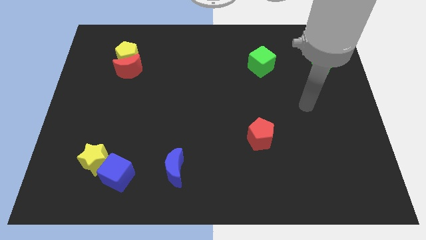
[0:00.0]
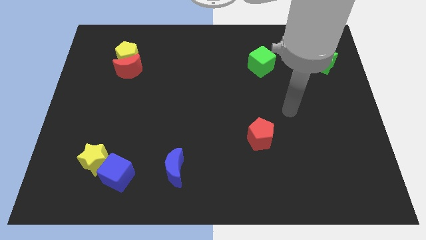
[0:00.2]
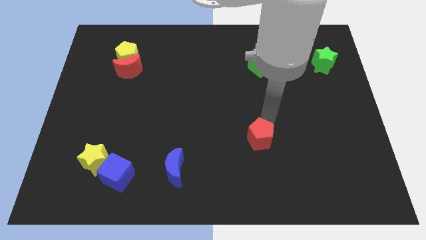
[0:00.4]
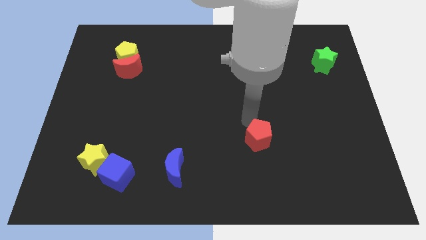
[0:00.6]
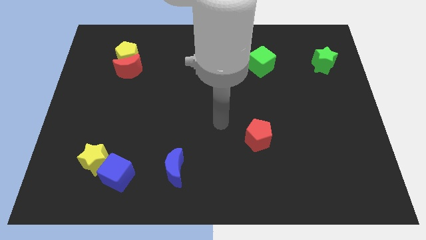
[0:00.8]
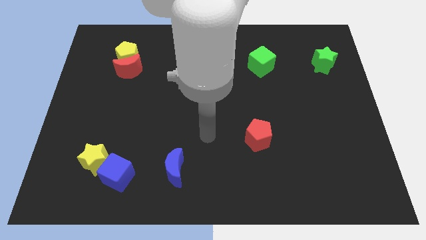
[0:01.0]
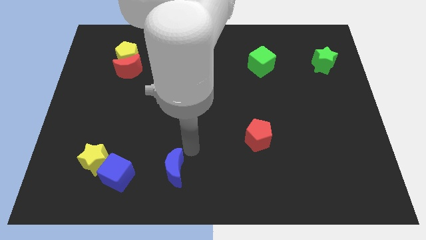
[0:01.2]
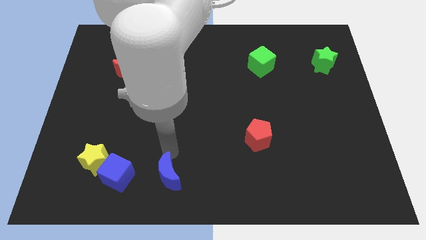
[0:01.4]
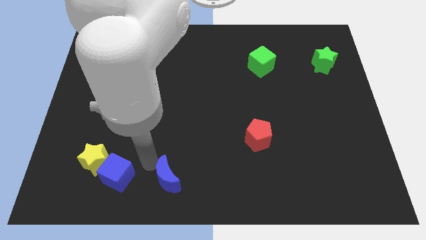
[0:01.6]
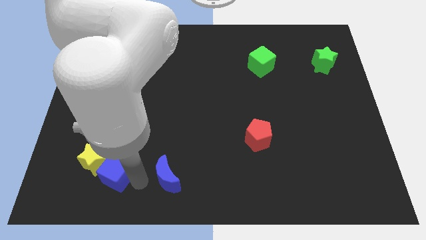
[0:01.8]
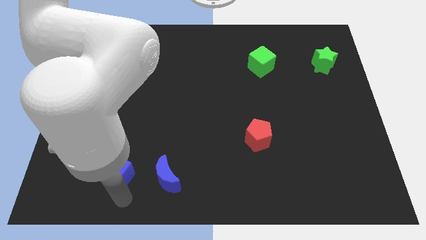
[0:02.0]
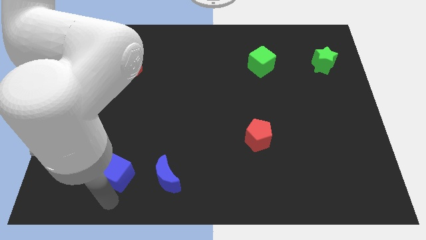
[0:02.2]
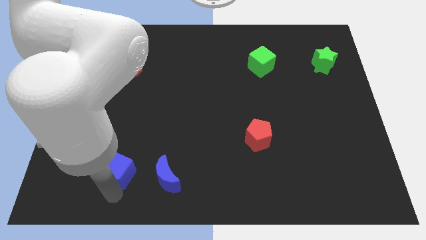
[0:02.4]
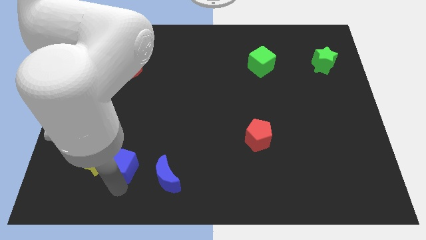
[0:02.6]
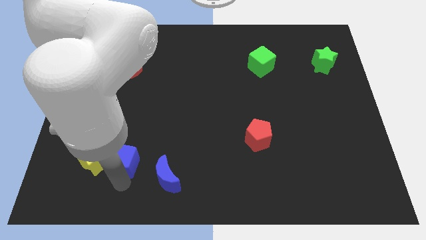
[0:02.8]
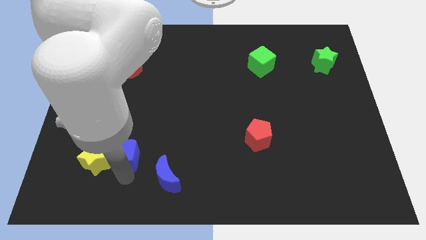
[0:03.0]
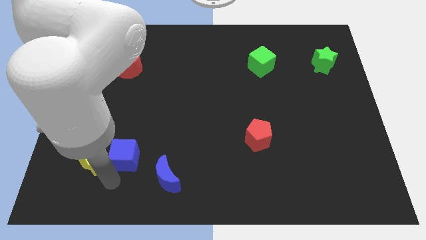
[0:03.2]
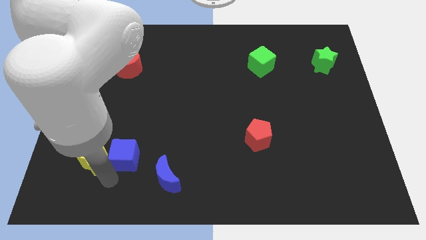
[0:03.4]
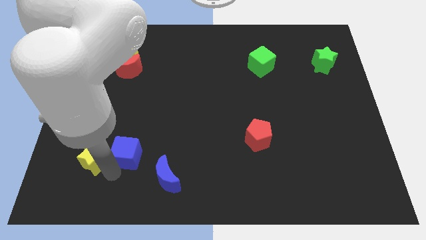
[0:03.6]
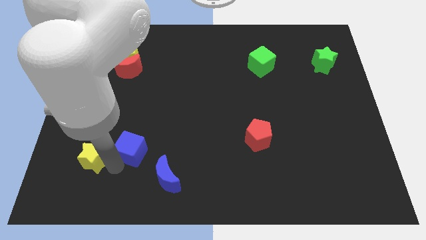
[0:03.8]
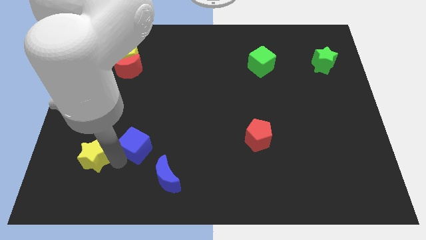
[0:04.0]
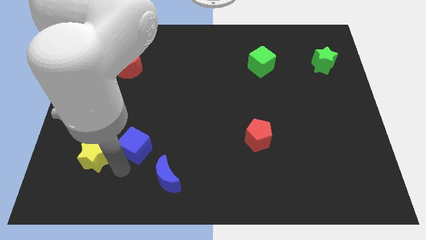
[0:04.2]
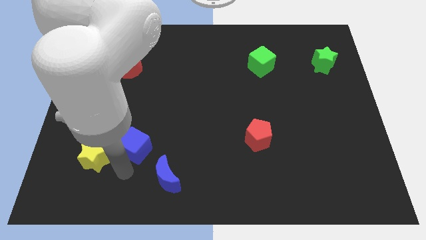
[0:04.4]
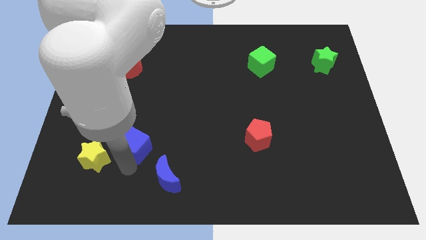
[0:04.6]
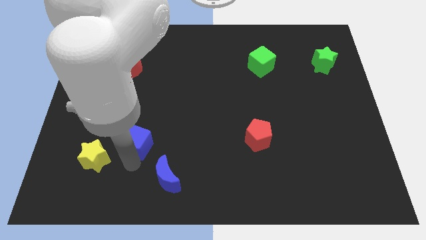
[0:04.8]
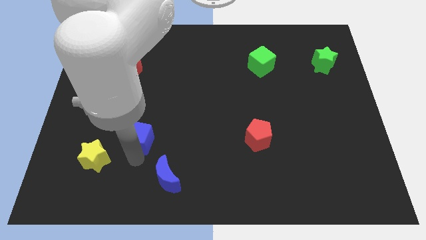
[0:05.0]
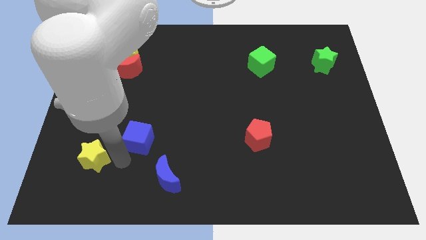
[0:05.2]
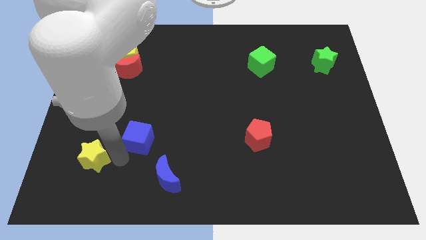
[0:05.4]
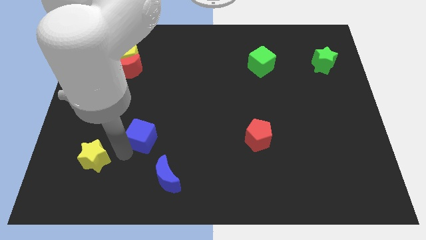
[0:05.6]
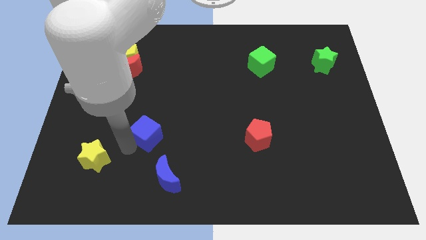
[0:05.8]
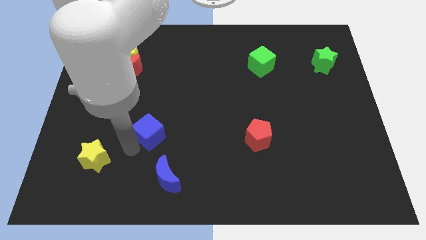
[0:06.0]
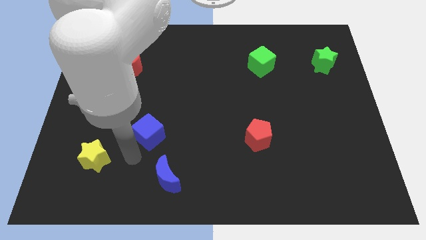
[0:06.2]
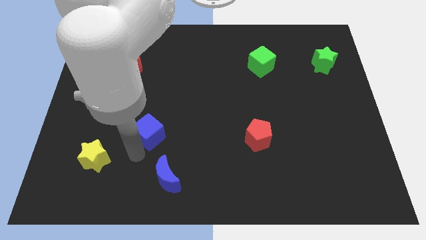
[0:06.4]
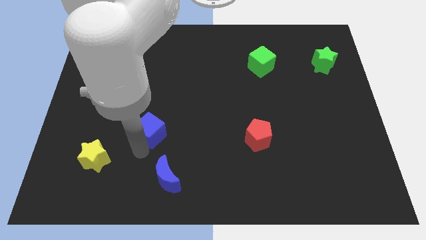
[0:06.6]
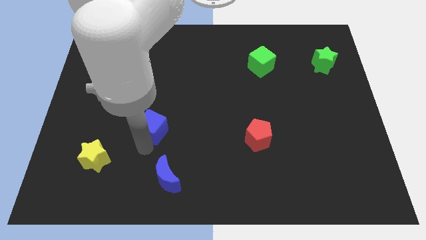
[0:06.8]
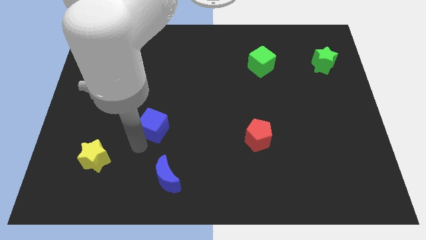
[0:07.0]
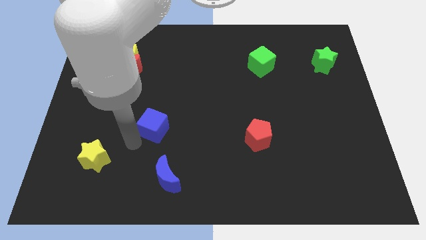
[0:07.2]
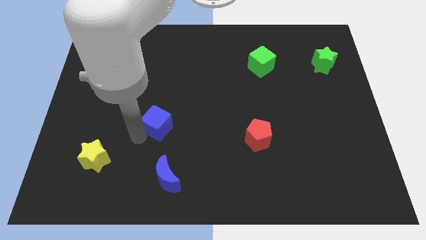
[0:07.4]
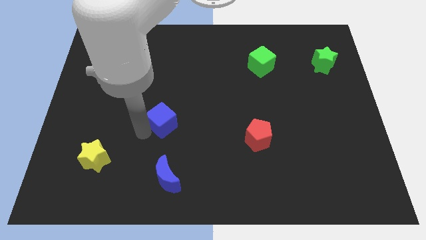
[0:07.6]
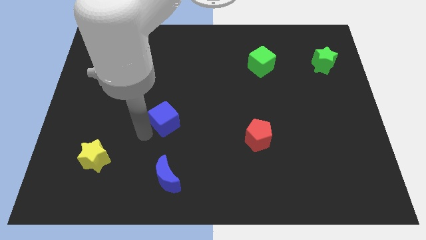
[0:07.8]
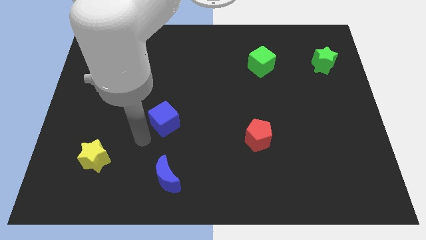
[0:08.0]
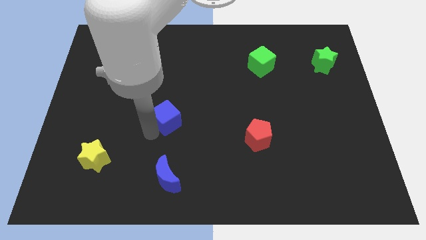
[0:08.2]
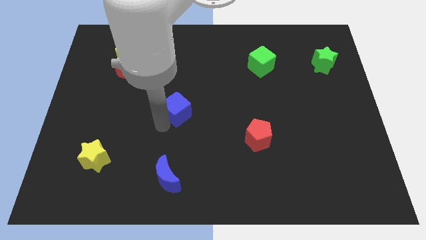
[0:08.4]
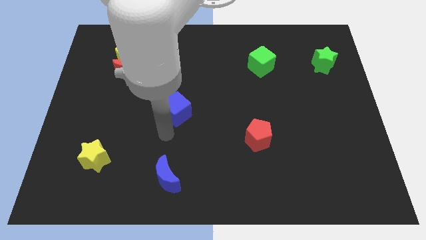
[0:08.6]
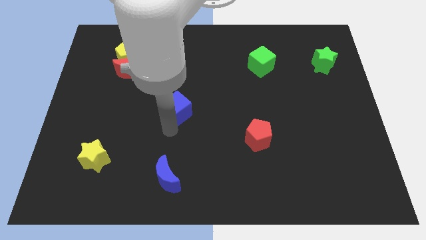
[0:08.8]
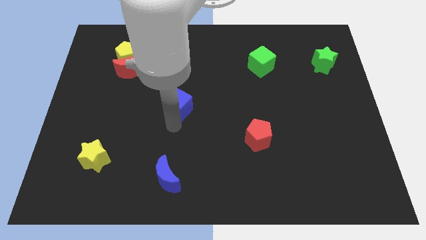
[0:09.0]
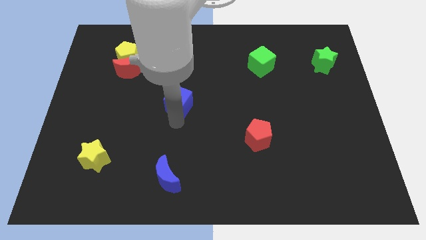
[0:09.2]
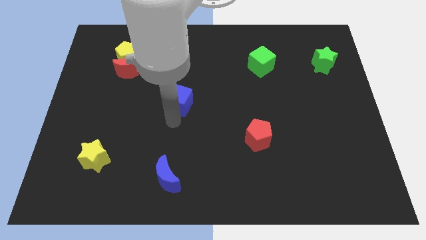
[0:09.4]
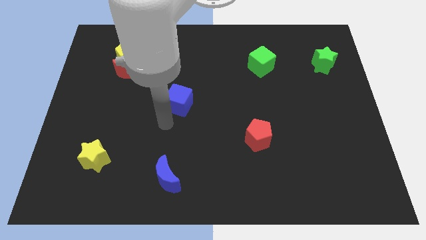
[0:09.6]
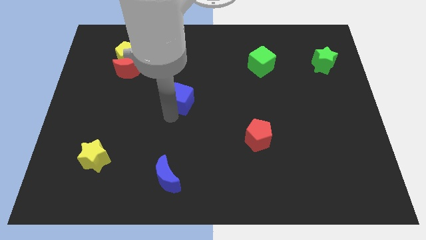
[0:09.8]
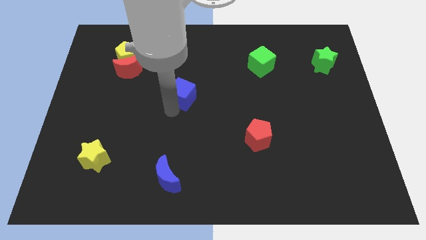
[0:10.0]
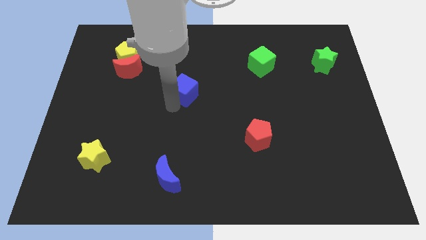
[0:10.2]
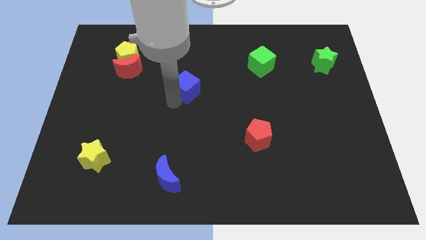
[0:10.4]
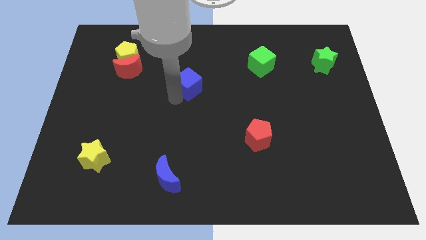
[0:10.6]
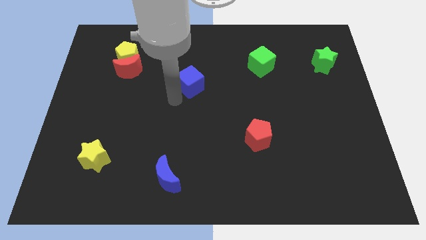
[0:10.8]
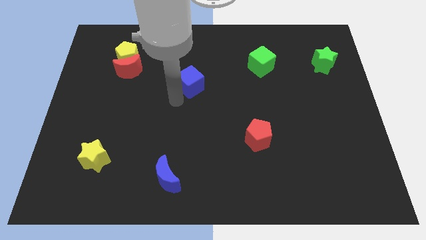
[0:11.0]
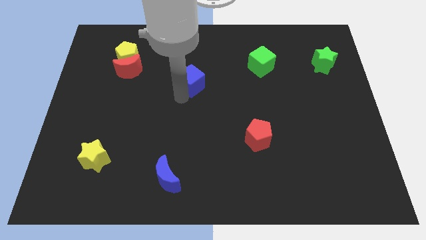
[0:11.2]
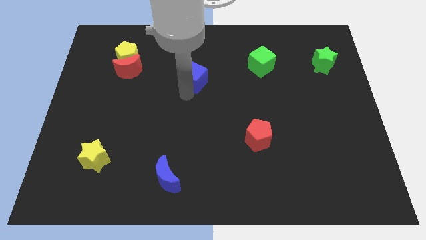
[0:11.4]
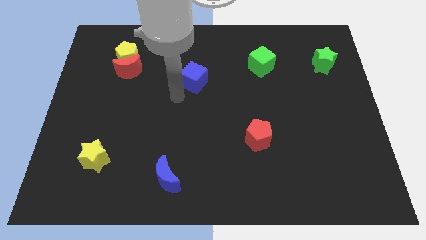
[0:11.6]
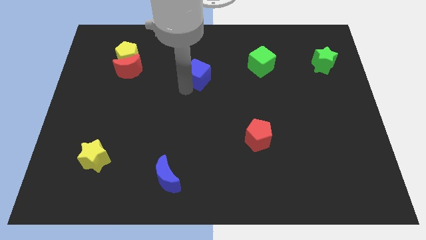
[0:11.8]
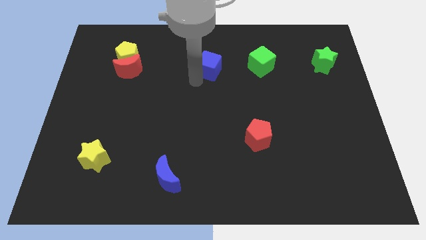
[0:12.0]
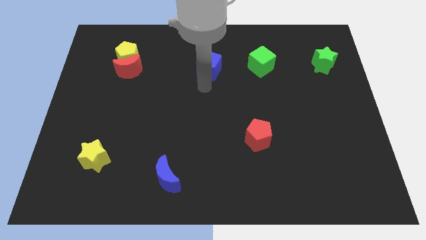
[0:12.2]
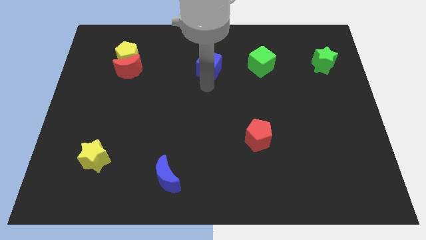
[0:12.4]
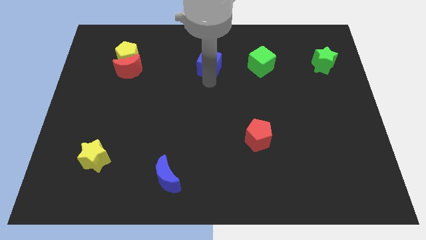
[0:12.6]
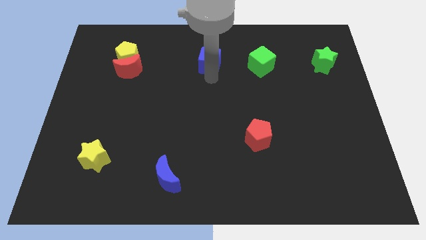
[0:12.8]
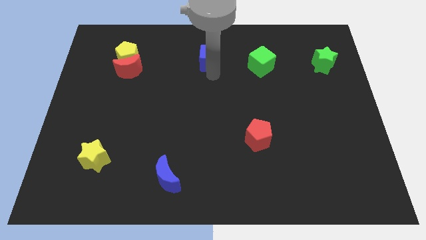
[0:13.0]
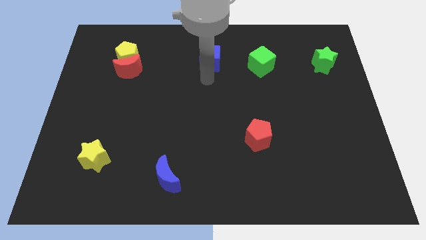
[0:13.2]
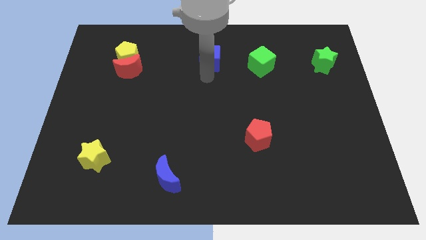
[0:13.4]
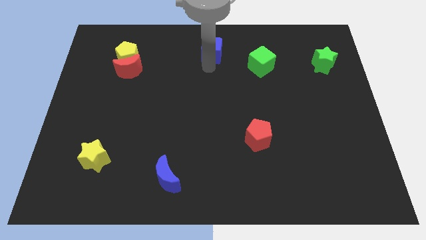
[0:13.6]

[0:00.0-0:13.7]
push the blue cube to the towards your base
